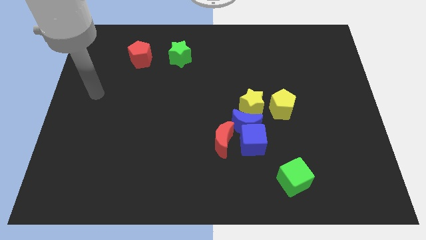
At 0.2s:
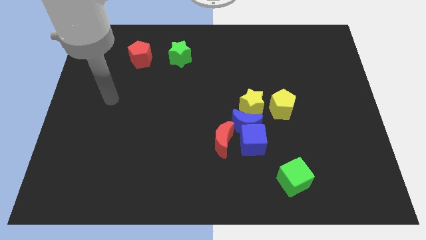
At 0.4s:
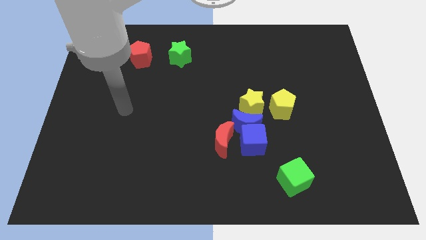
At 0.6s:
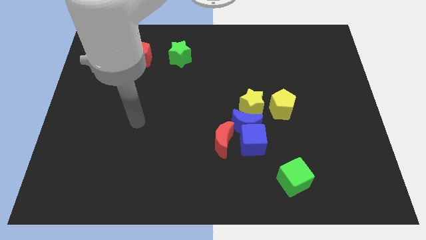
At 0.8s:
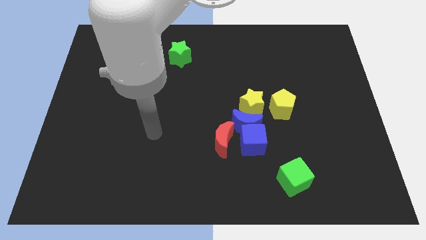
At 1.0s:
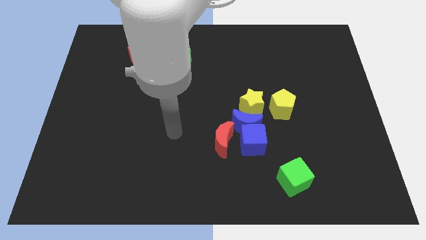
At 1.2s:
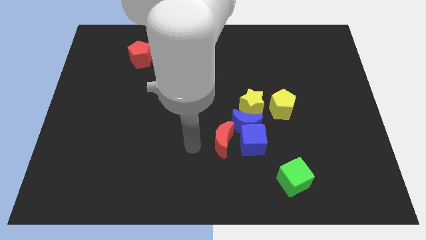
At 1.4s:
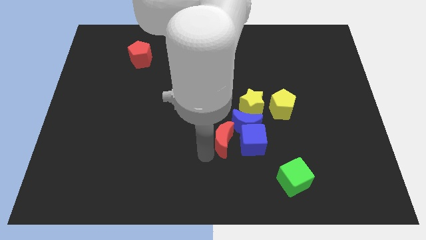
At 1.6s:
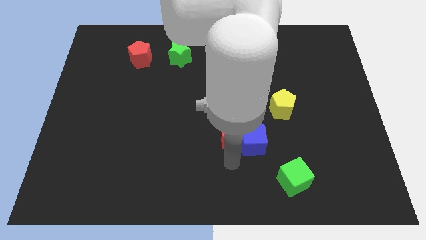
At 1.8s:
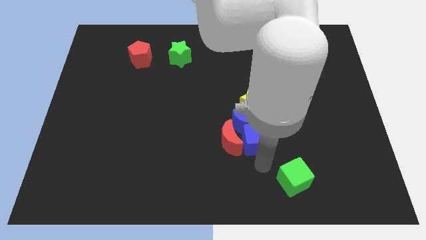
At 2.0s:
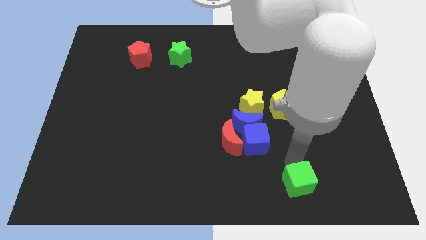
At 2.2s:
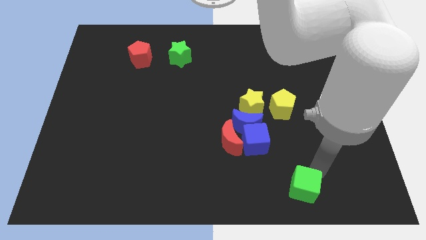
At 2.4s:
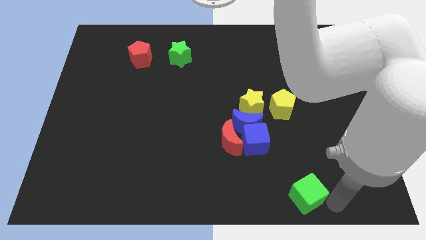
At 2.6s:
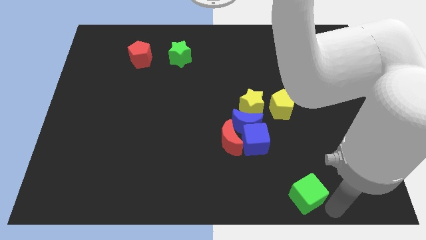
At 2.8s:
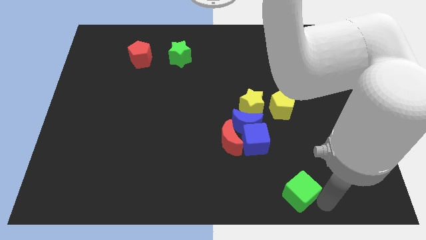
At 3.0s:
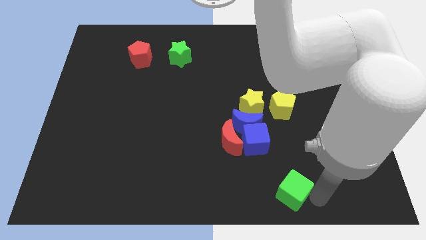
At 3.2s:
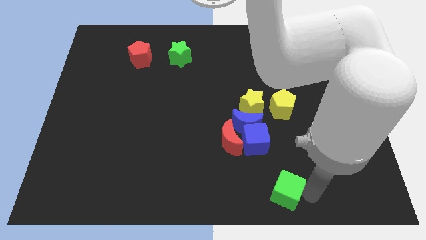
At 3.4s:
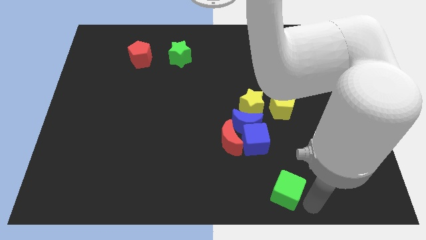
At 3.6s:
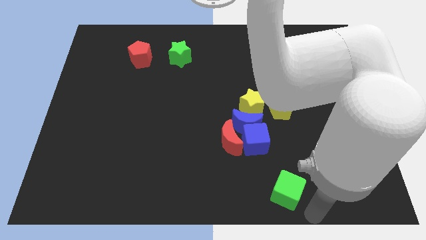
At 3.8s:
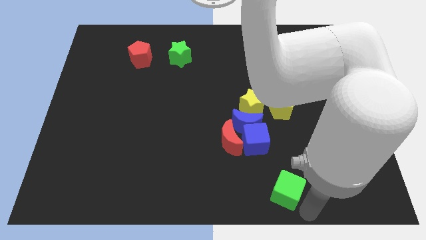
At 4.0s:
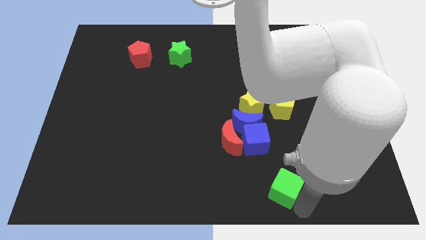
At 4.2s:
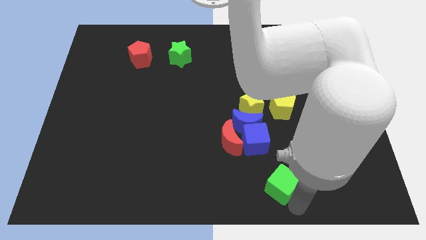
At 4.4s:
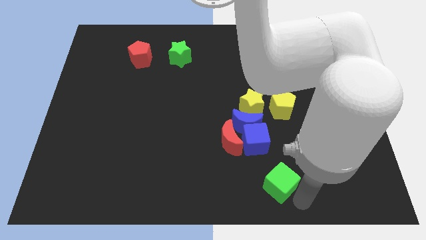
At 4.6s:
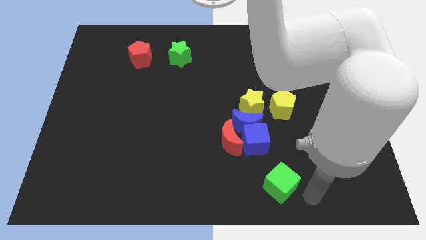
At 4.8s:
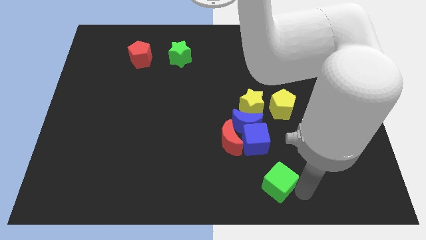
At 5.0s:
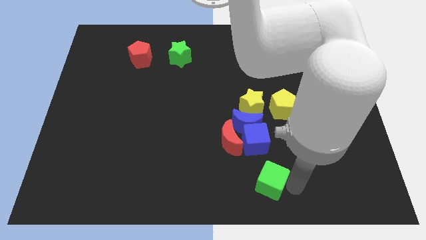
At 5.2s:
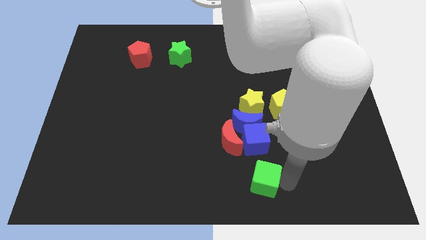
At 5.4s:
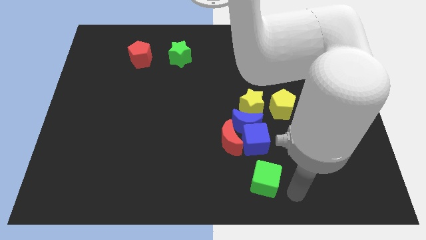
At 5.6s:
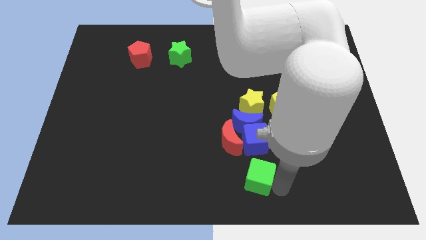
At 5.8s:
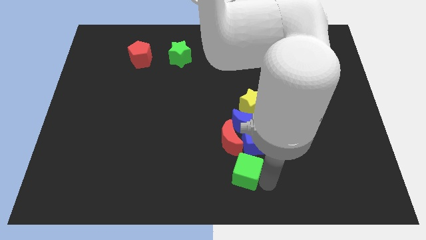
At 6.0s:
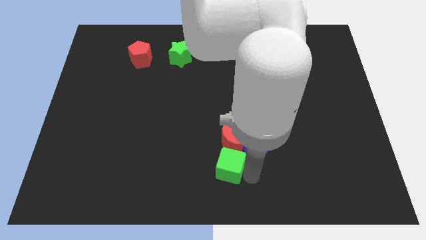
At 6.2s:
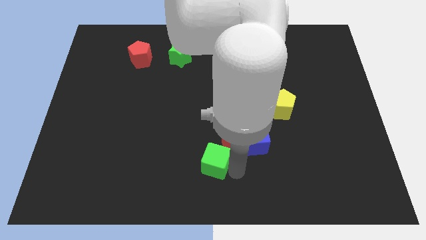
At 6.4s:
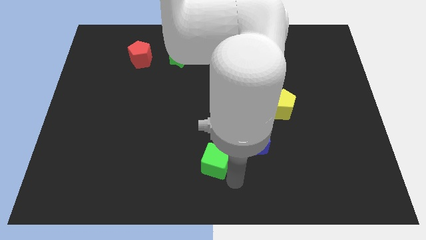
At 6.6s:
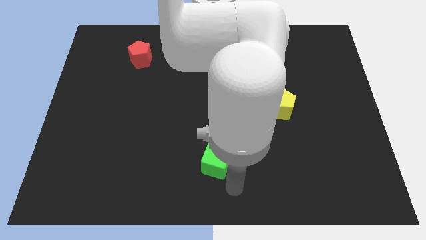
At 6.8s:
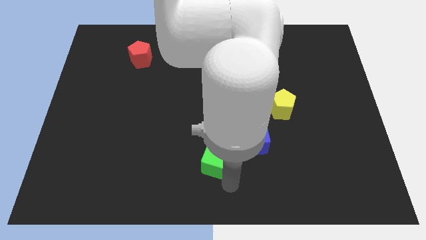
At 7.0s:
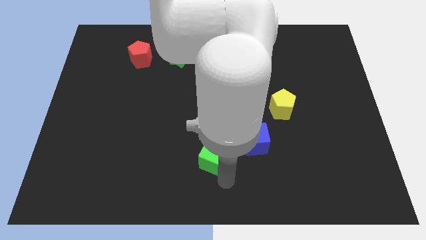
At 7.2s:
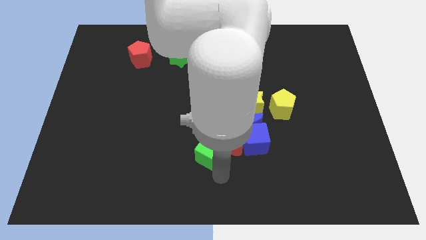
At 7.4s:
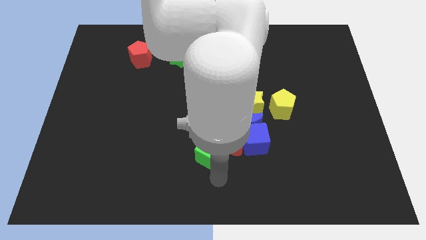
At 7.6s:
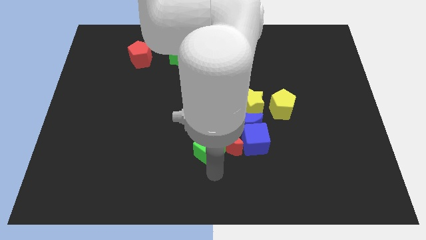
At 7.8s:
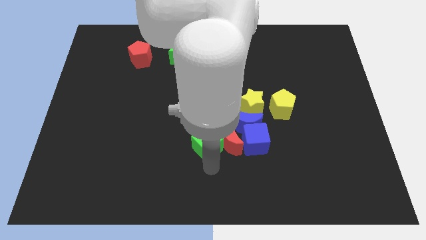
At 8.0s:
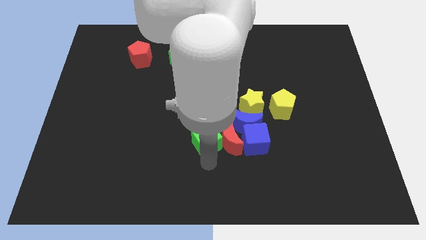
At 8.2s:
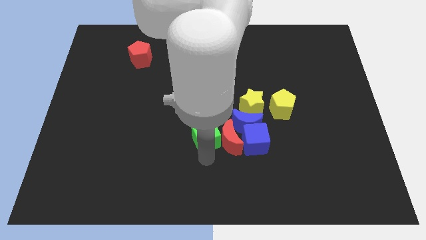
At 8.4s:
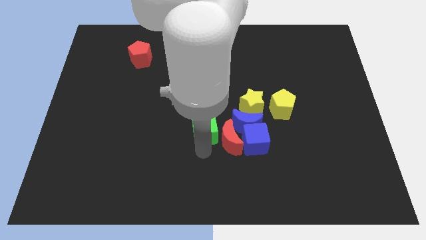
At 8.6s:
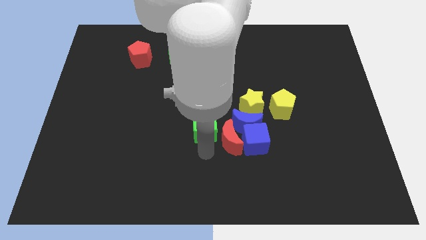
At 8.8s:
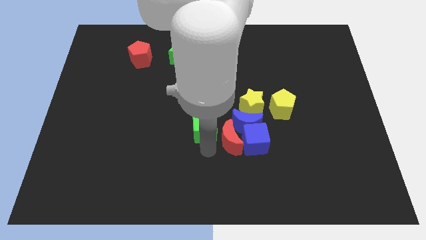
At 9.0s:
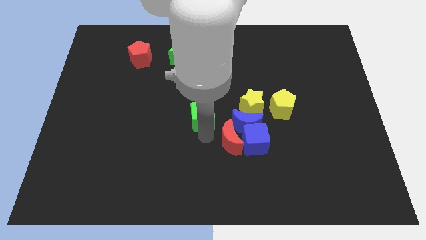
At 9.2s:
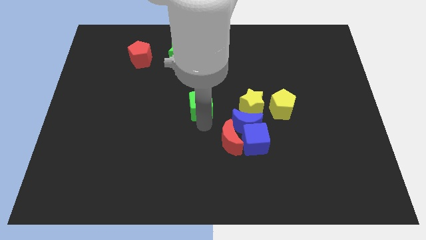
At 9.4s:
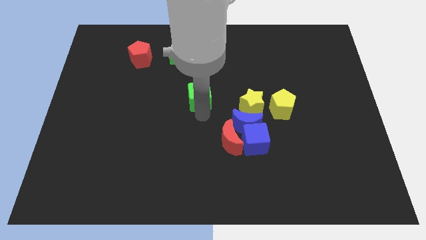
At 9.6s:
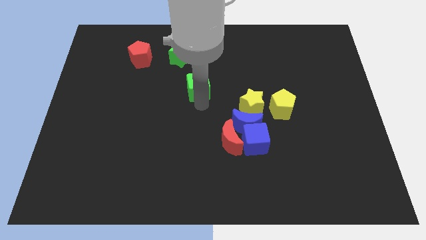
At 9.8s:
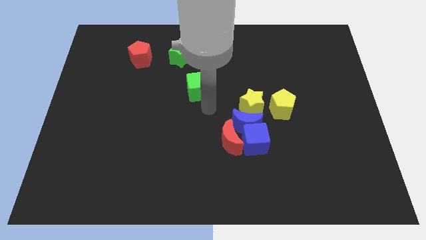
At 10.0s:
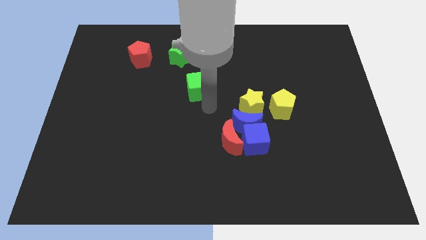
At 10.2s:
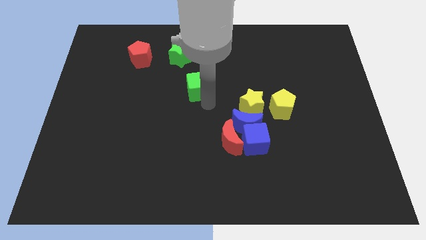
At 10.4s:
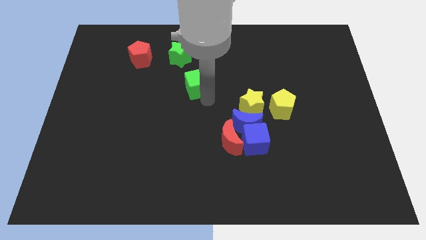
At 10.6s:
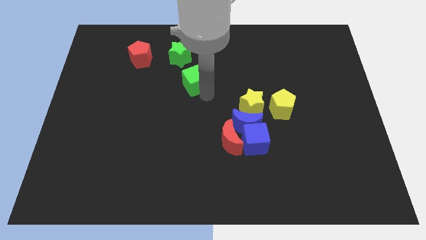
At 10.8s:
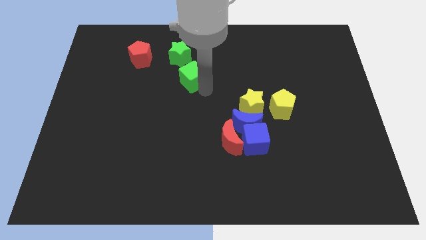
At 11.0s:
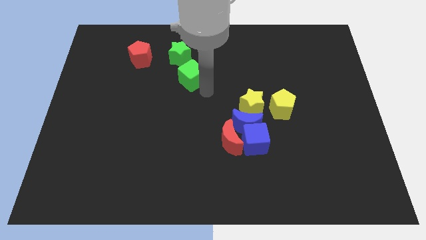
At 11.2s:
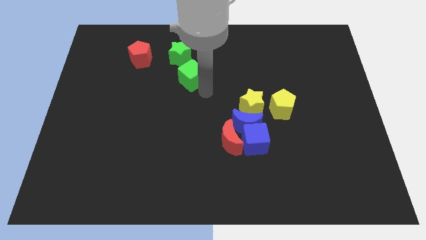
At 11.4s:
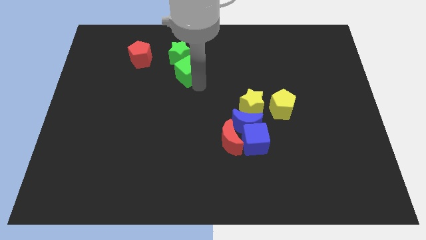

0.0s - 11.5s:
slide the green cube next to the green star

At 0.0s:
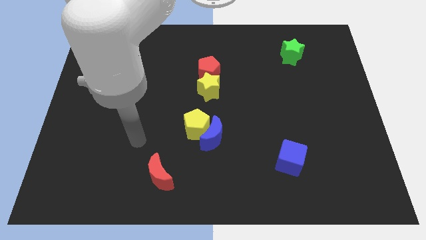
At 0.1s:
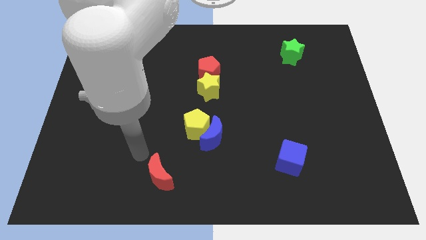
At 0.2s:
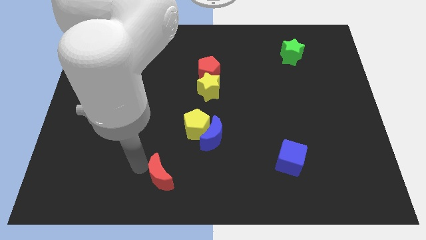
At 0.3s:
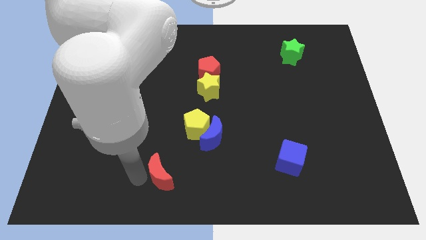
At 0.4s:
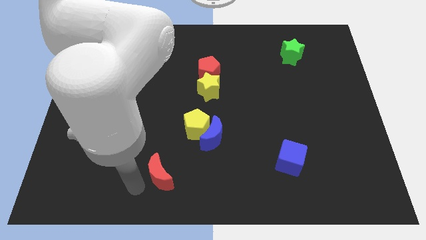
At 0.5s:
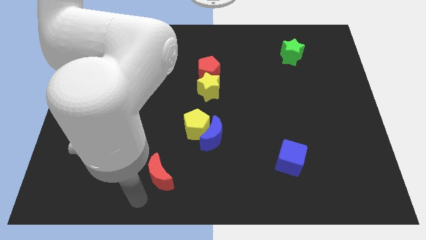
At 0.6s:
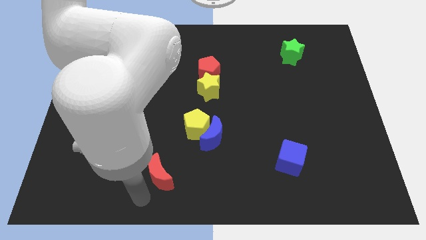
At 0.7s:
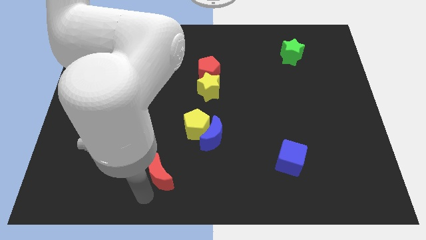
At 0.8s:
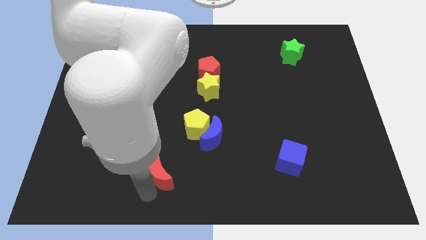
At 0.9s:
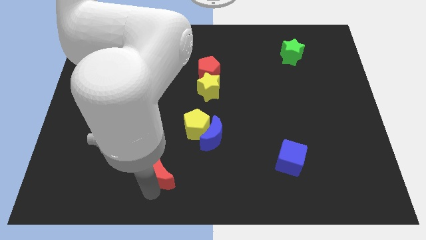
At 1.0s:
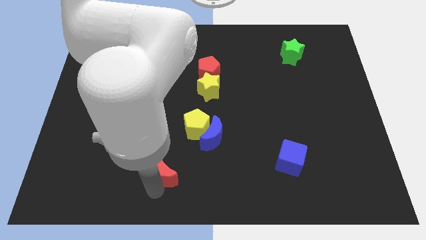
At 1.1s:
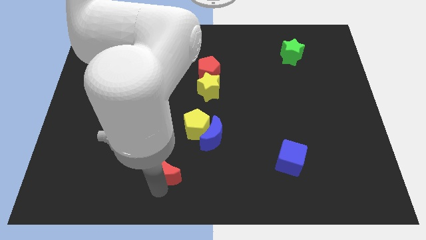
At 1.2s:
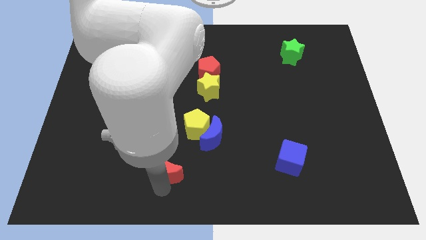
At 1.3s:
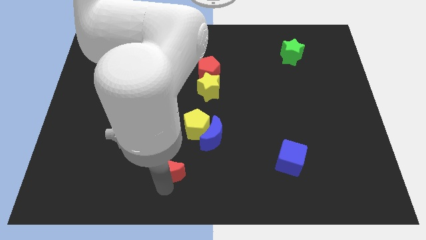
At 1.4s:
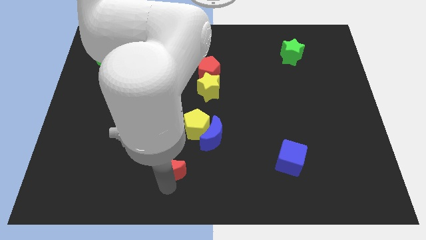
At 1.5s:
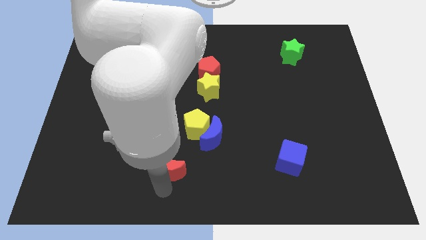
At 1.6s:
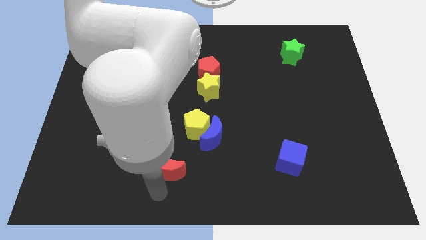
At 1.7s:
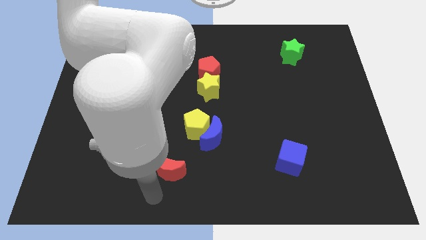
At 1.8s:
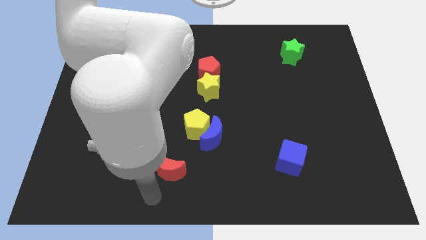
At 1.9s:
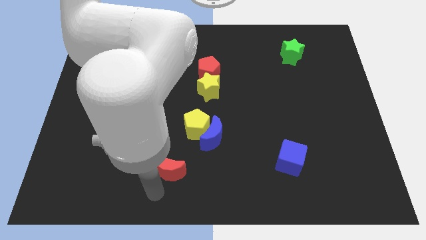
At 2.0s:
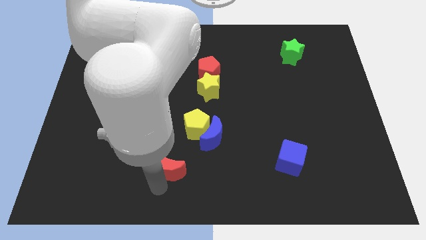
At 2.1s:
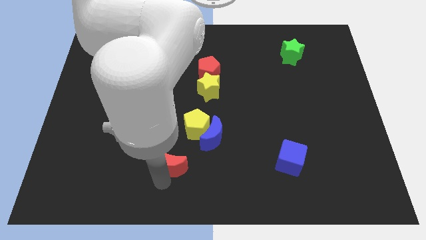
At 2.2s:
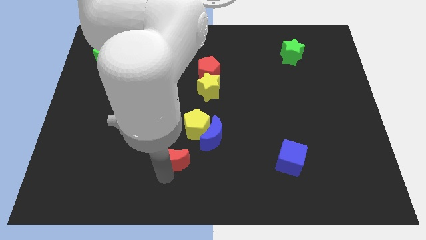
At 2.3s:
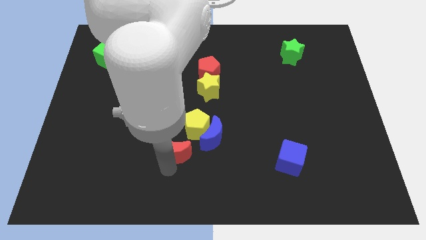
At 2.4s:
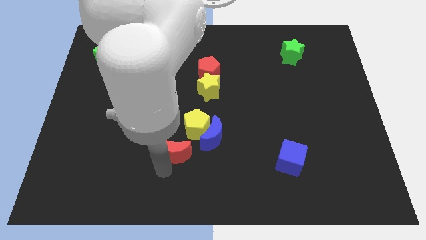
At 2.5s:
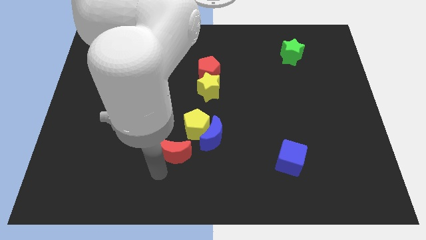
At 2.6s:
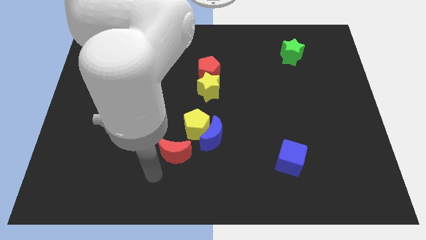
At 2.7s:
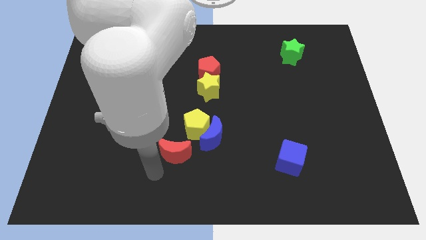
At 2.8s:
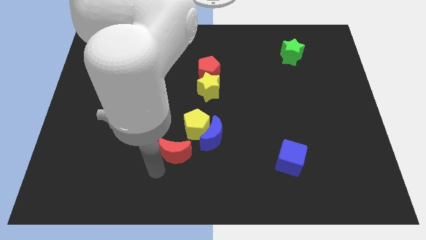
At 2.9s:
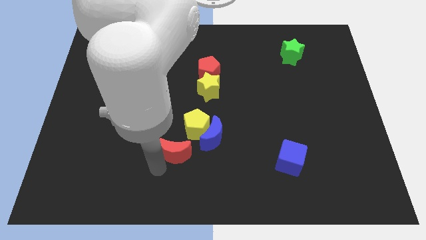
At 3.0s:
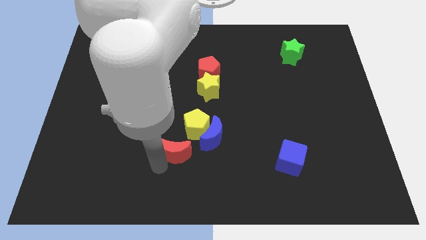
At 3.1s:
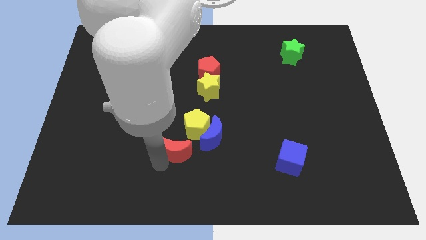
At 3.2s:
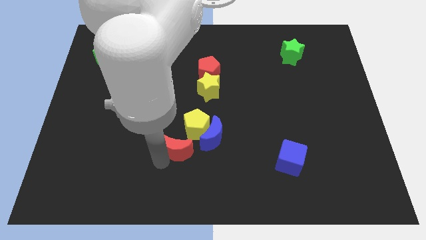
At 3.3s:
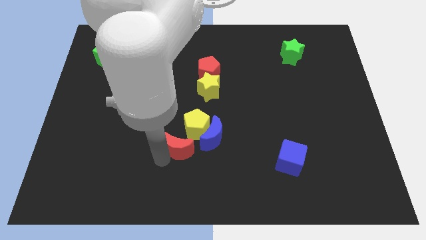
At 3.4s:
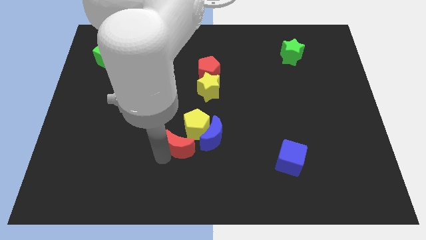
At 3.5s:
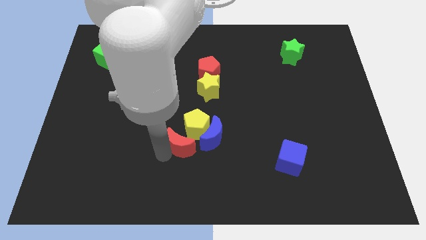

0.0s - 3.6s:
move the red moon next to the yellow pentagon
